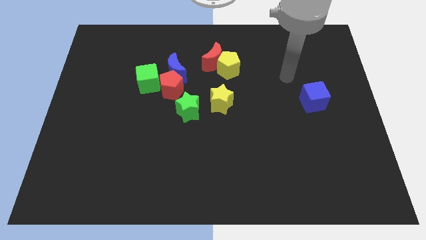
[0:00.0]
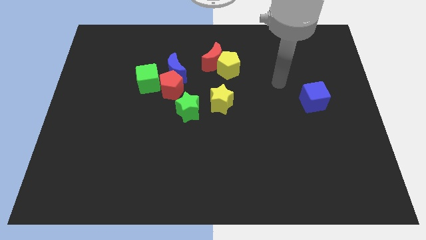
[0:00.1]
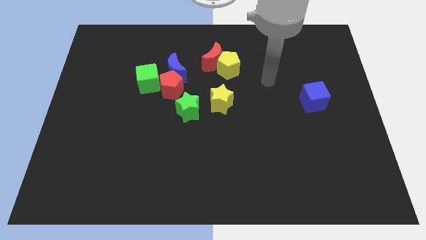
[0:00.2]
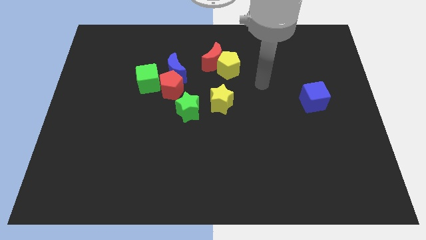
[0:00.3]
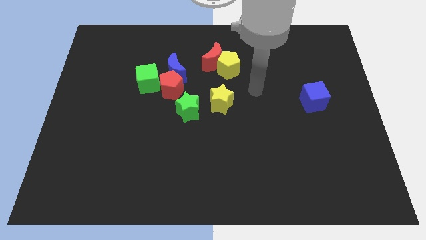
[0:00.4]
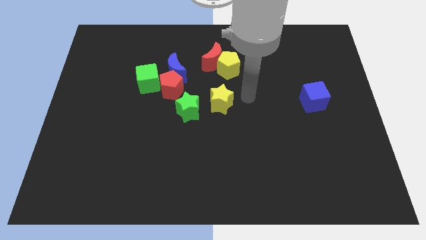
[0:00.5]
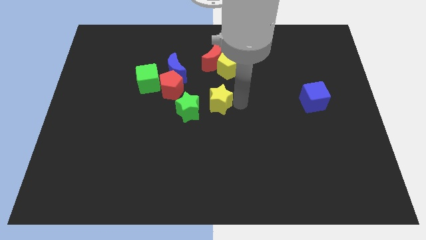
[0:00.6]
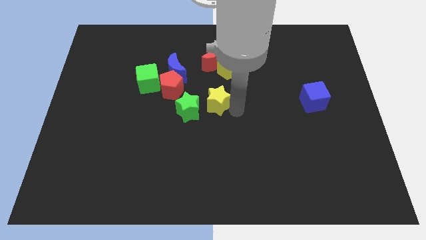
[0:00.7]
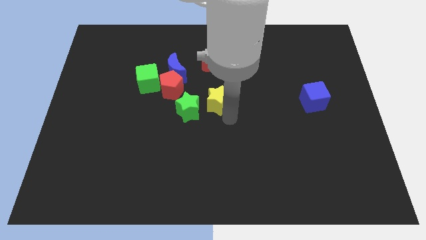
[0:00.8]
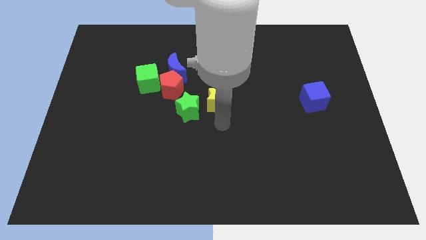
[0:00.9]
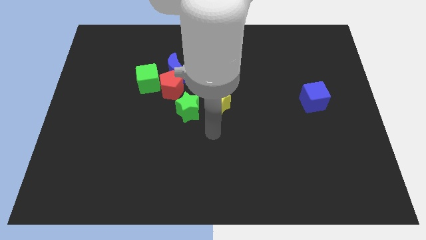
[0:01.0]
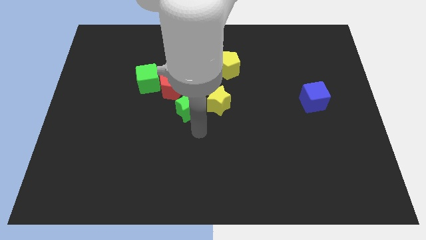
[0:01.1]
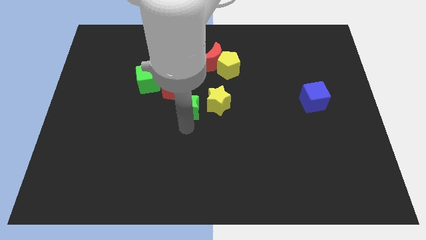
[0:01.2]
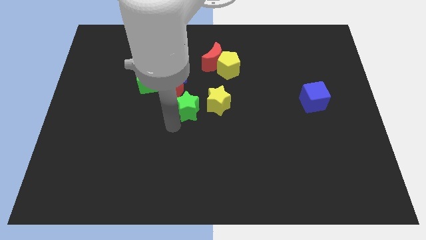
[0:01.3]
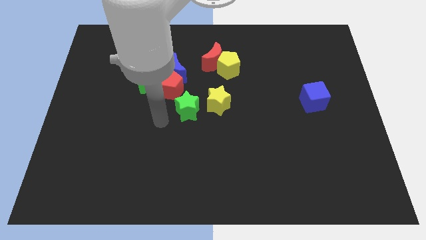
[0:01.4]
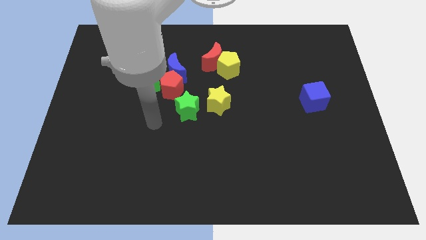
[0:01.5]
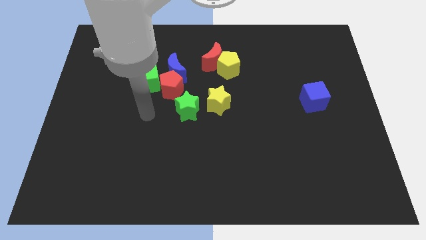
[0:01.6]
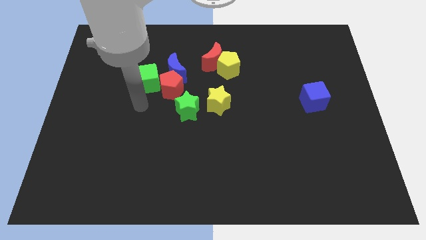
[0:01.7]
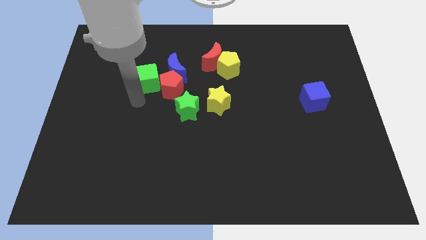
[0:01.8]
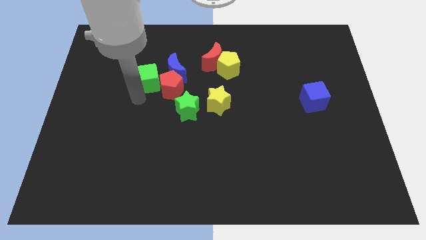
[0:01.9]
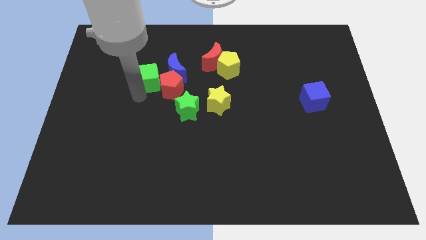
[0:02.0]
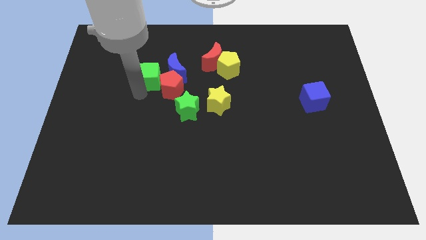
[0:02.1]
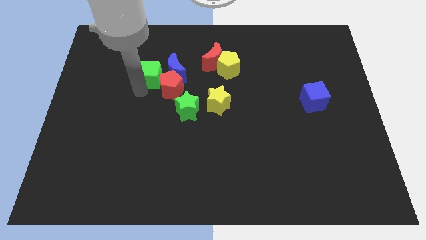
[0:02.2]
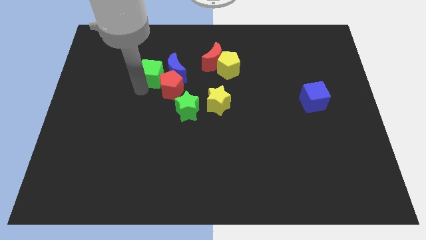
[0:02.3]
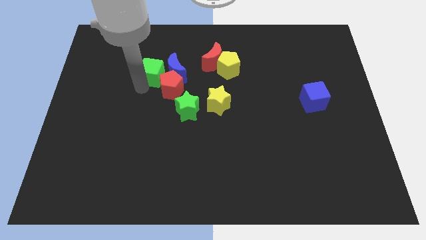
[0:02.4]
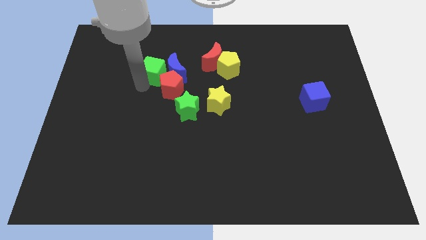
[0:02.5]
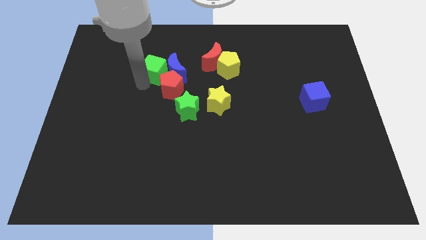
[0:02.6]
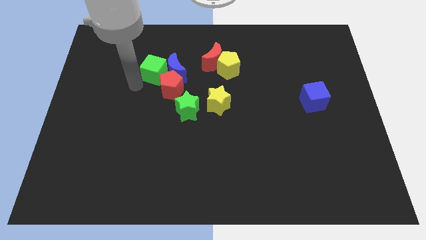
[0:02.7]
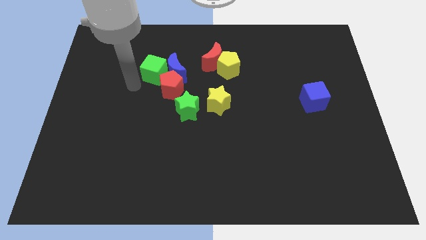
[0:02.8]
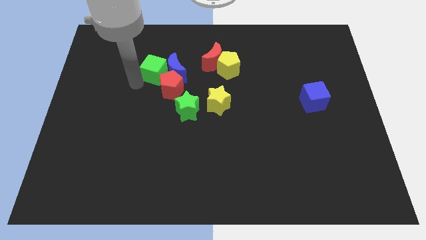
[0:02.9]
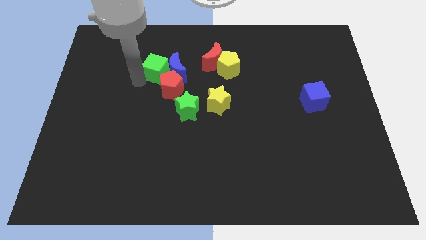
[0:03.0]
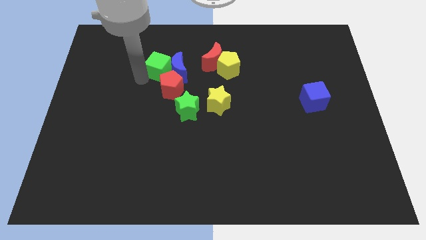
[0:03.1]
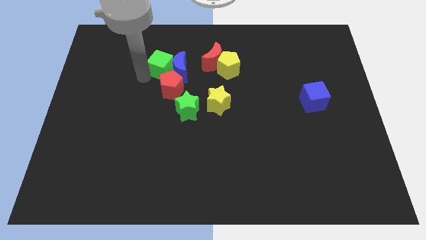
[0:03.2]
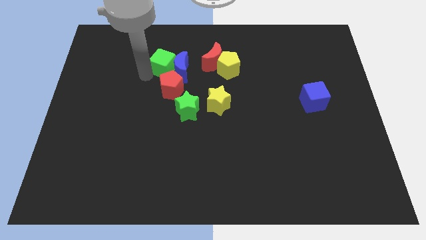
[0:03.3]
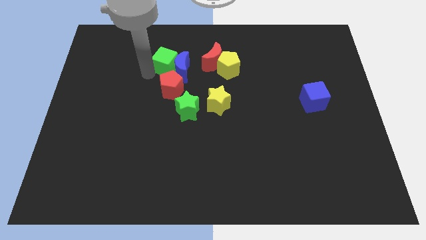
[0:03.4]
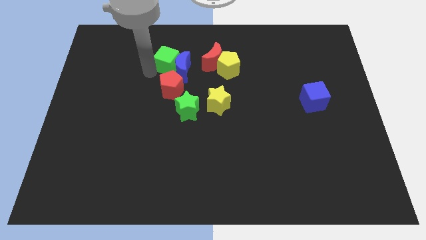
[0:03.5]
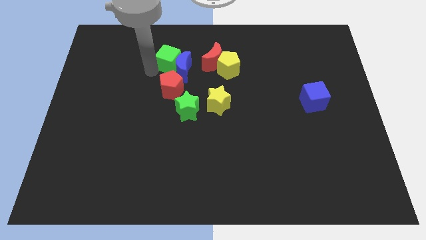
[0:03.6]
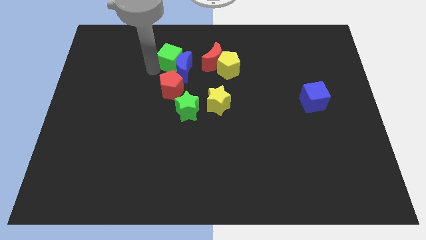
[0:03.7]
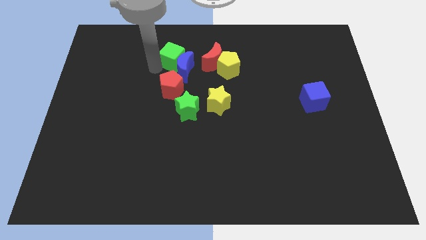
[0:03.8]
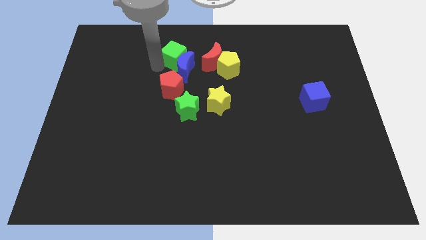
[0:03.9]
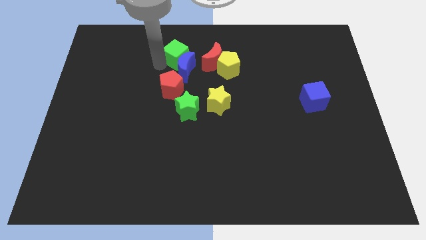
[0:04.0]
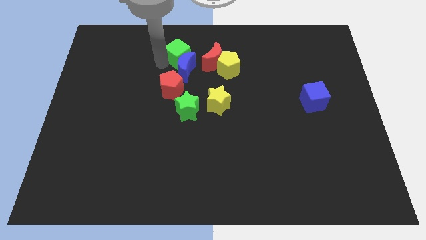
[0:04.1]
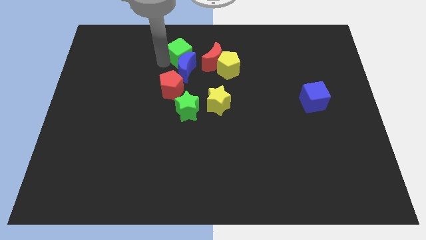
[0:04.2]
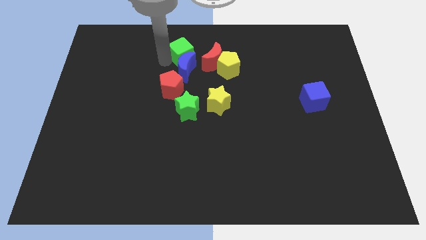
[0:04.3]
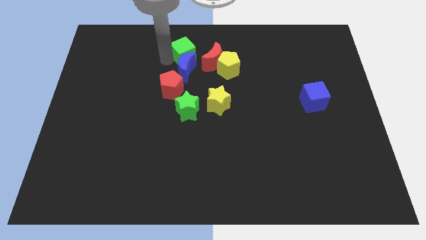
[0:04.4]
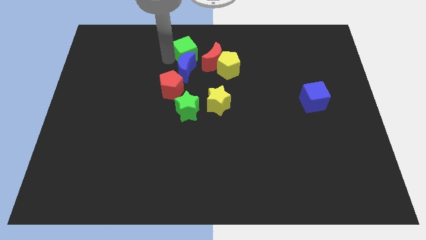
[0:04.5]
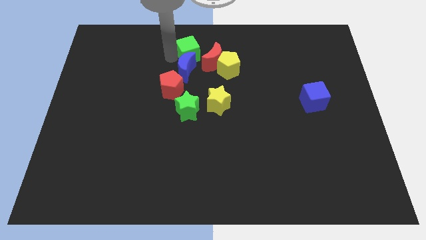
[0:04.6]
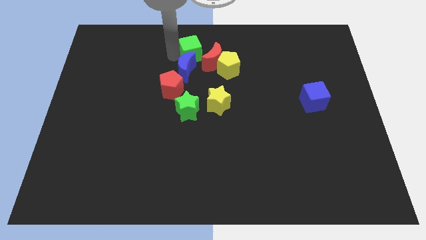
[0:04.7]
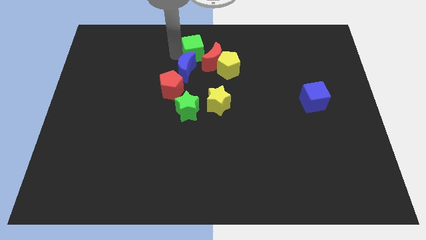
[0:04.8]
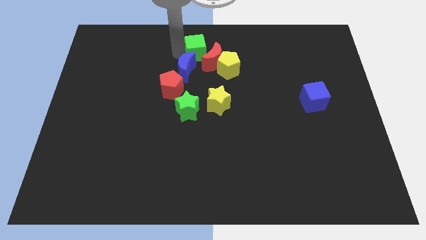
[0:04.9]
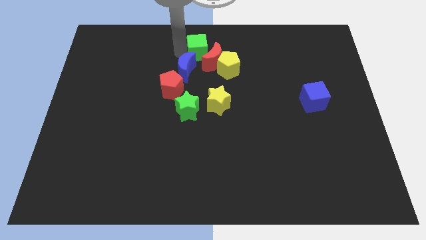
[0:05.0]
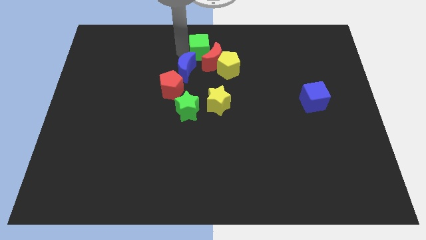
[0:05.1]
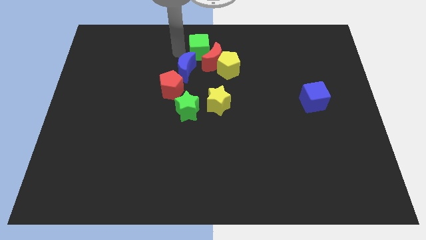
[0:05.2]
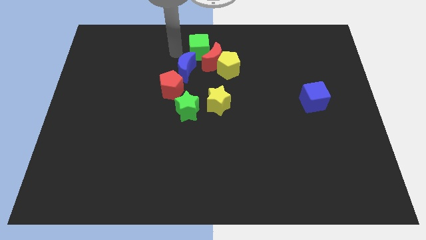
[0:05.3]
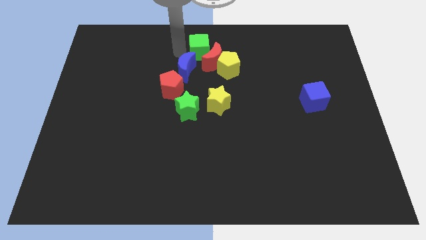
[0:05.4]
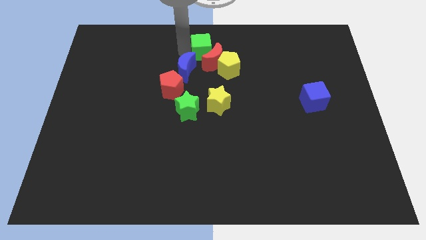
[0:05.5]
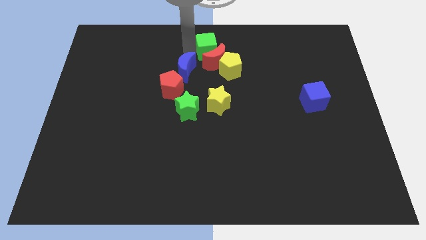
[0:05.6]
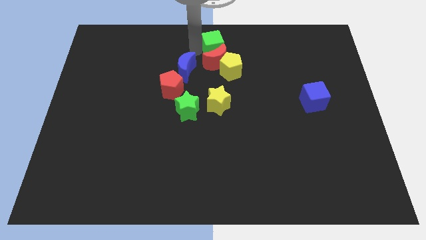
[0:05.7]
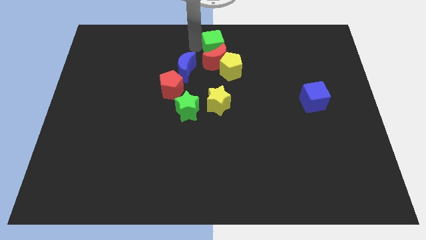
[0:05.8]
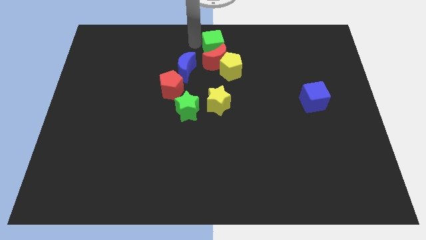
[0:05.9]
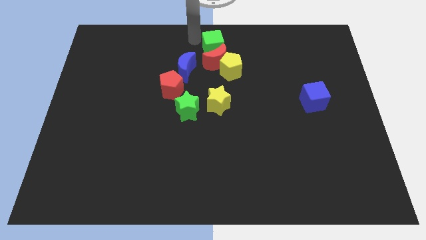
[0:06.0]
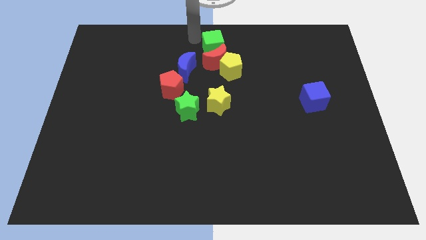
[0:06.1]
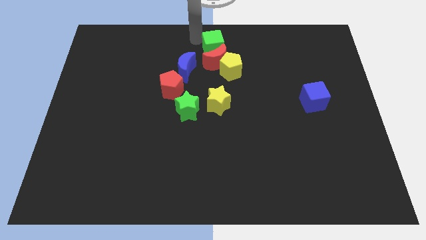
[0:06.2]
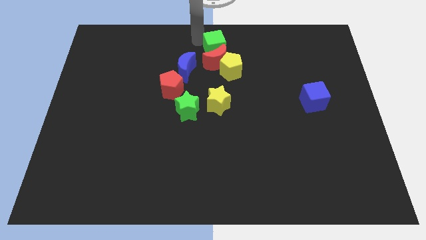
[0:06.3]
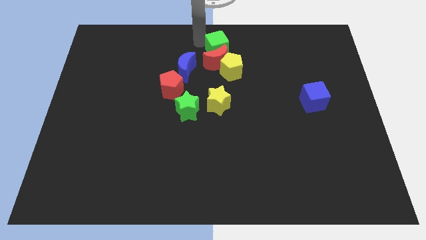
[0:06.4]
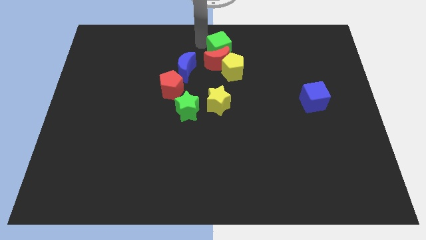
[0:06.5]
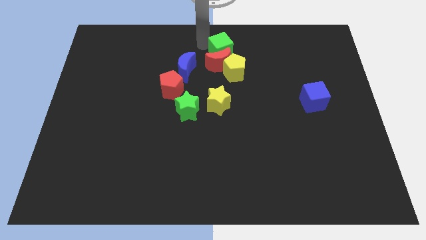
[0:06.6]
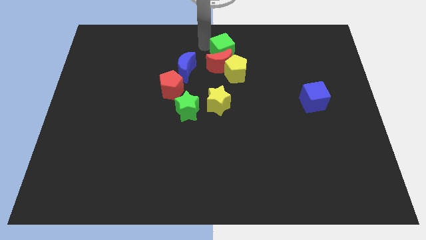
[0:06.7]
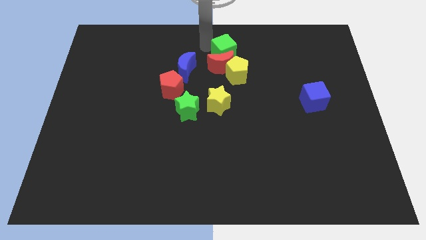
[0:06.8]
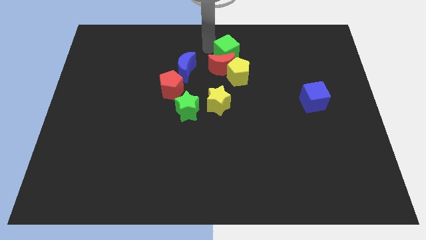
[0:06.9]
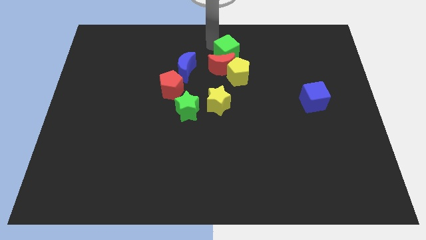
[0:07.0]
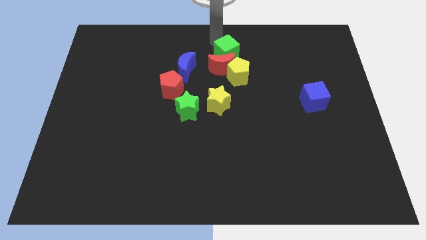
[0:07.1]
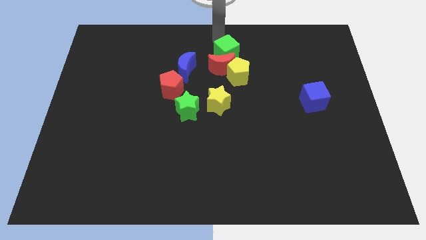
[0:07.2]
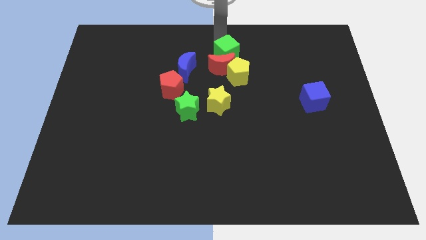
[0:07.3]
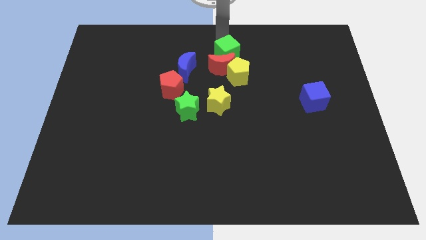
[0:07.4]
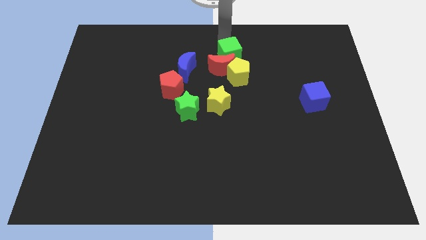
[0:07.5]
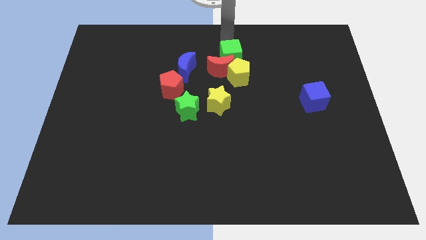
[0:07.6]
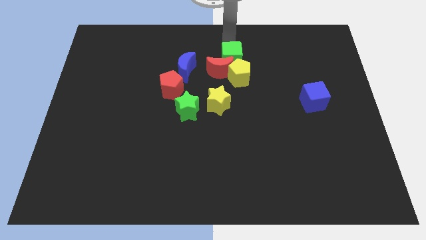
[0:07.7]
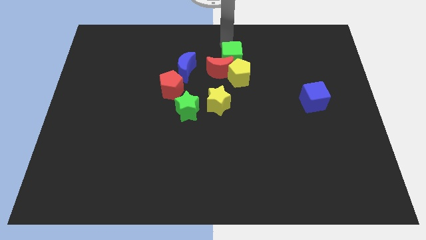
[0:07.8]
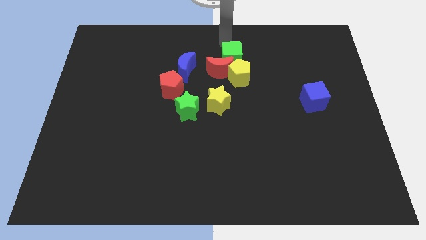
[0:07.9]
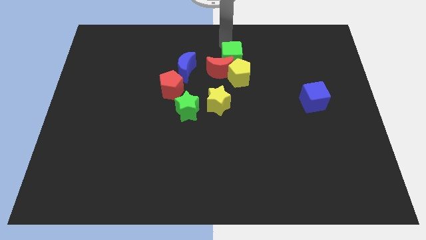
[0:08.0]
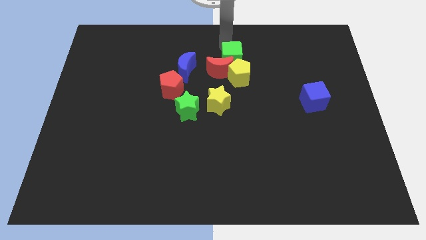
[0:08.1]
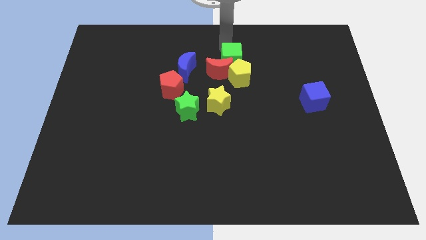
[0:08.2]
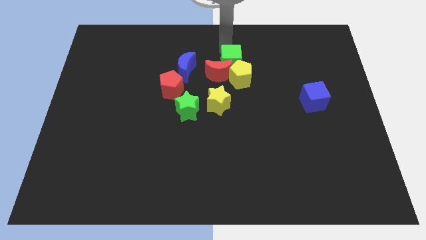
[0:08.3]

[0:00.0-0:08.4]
put the green cube towards the yellow pentagon
